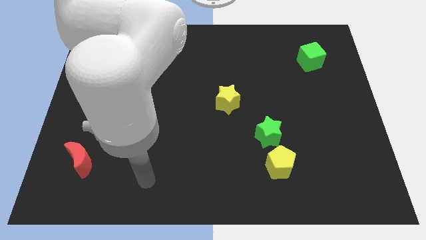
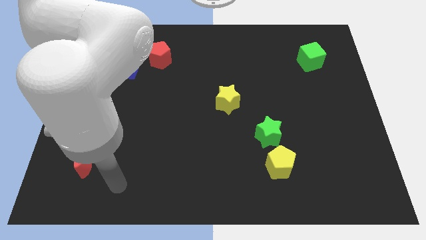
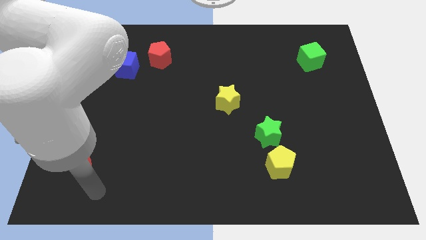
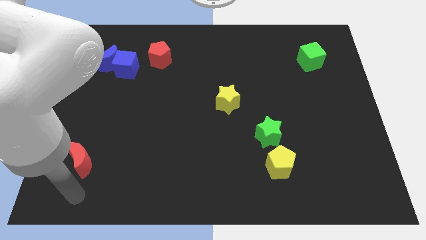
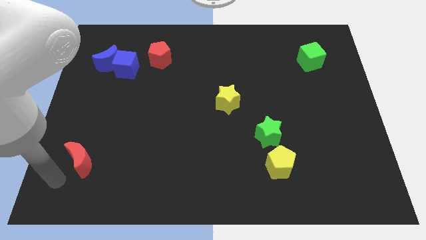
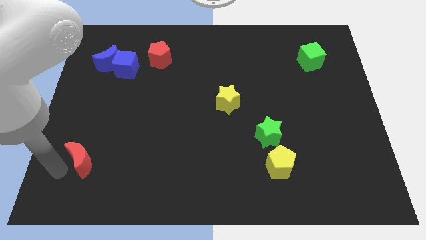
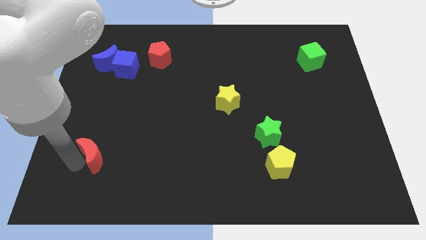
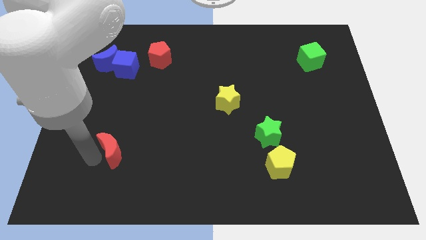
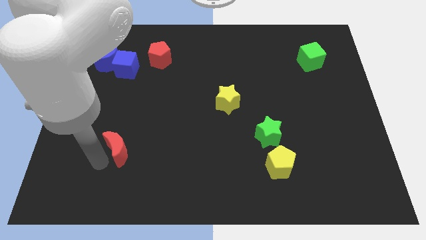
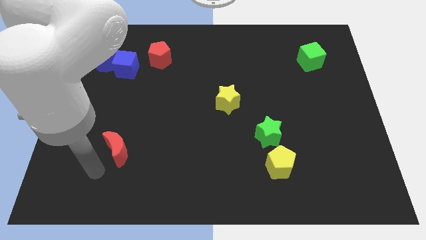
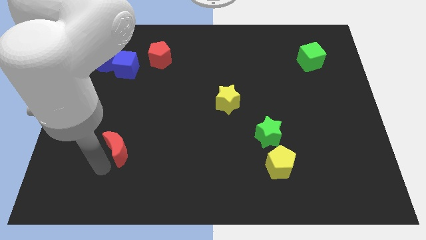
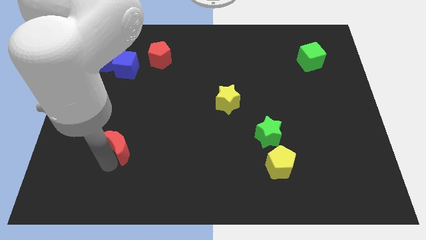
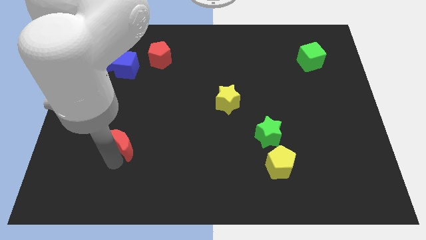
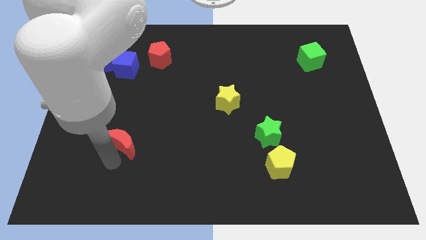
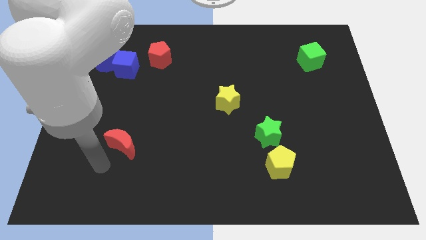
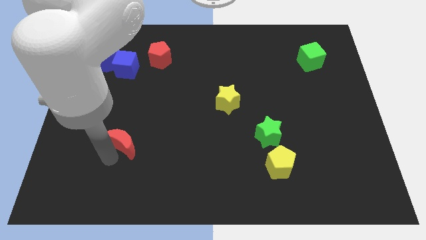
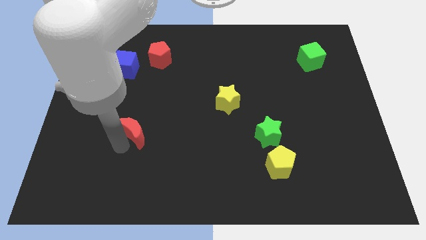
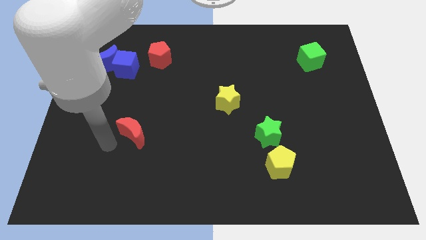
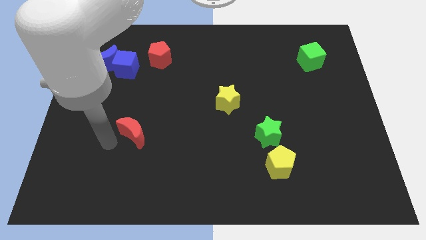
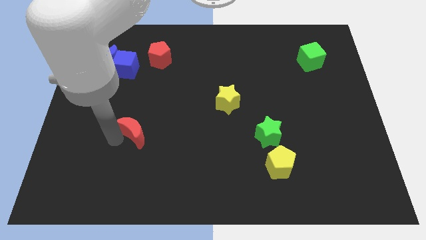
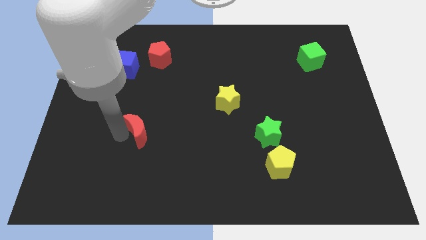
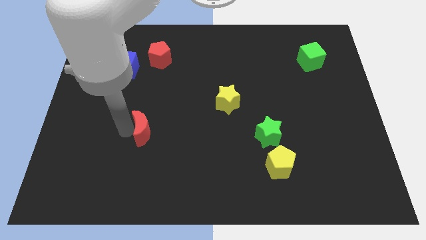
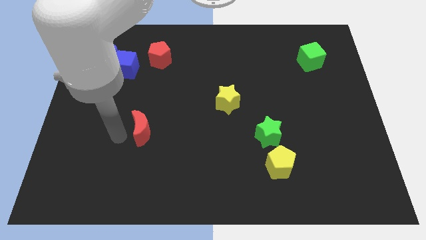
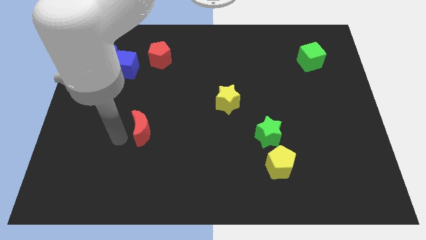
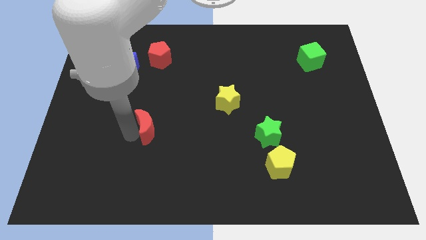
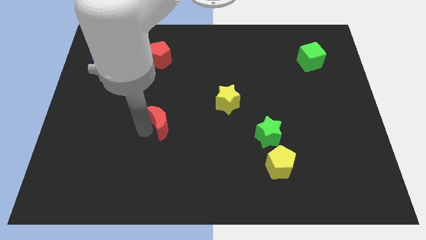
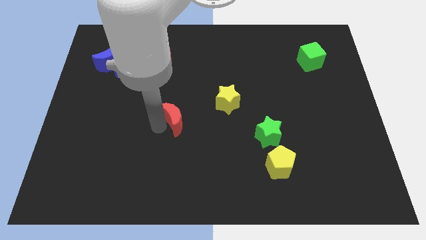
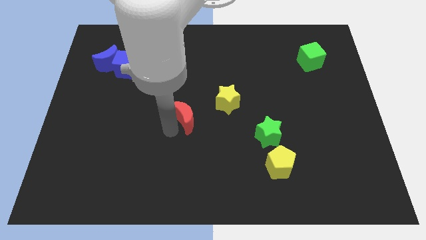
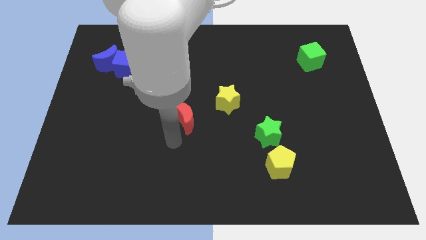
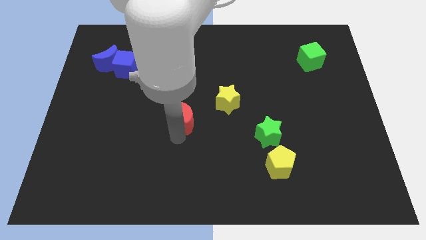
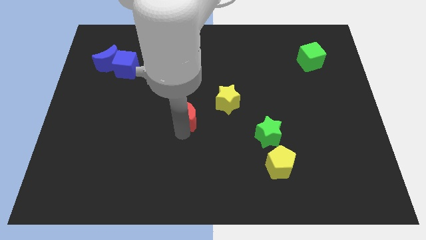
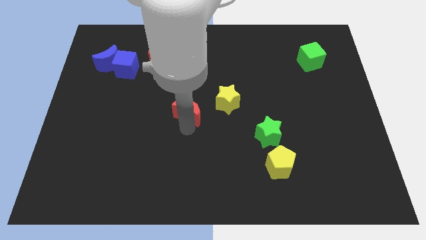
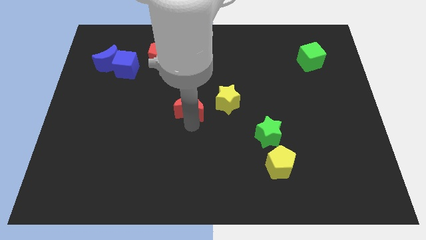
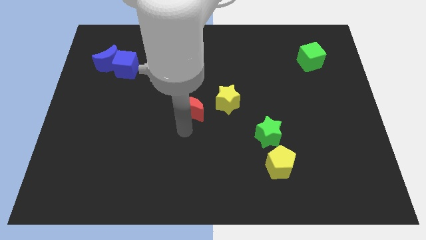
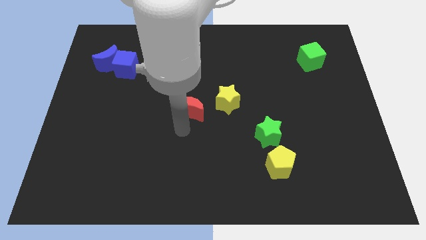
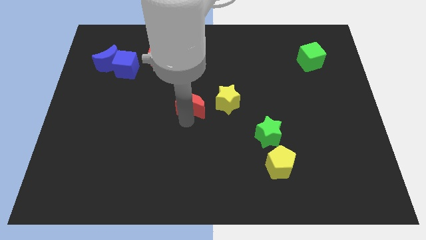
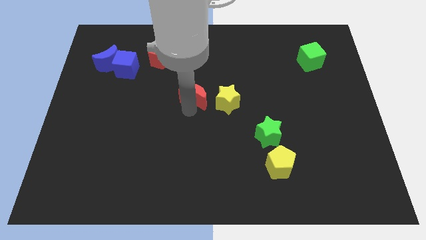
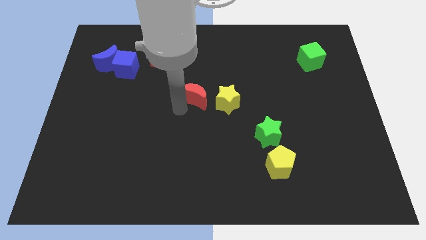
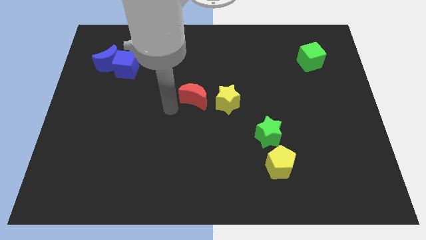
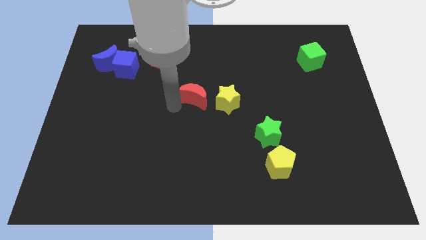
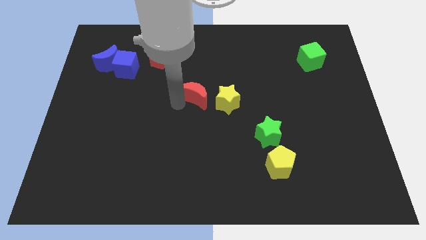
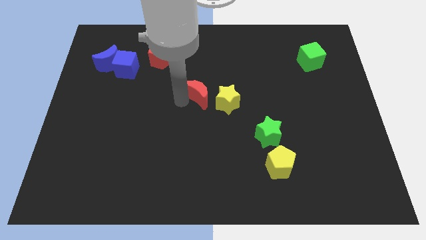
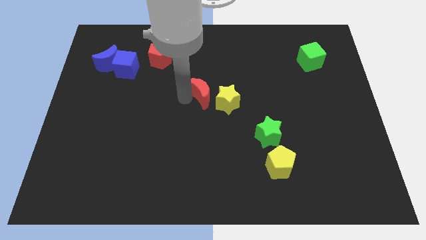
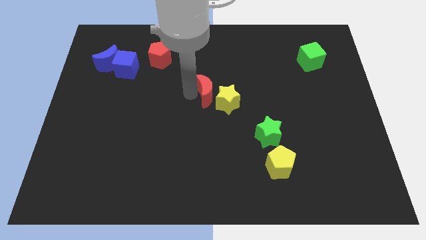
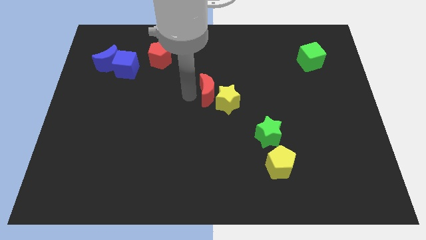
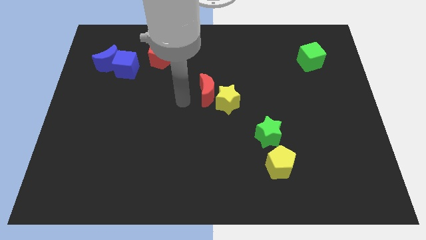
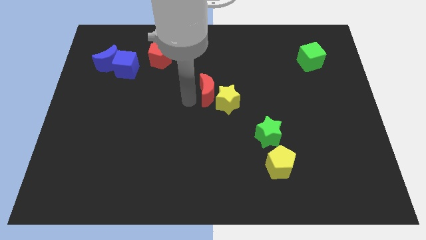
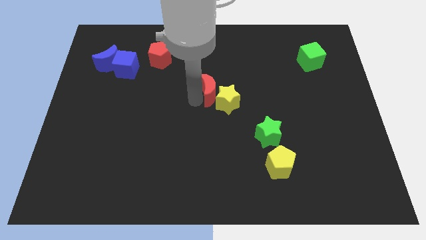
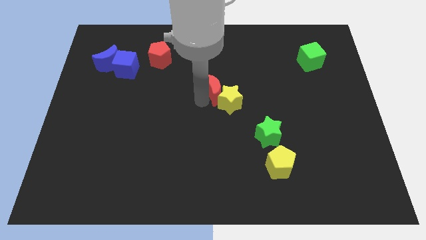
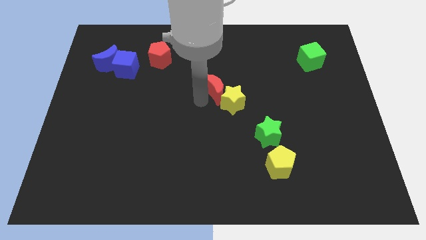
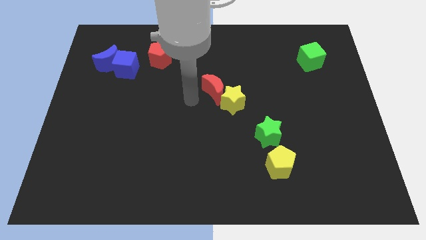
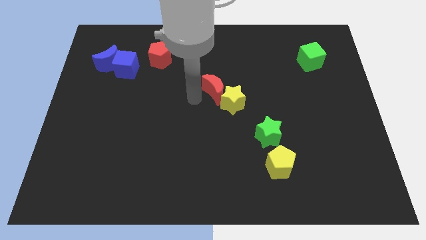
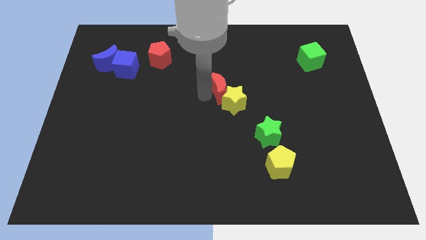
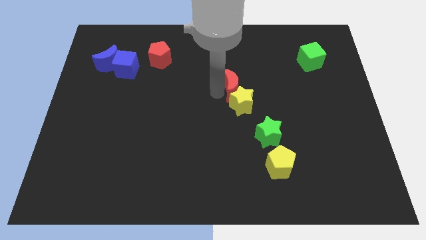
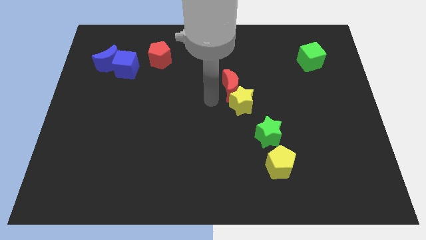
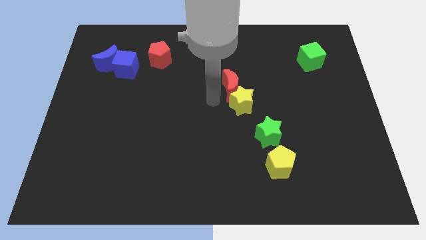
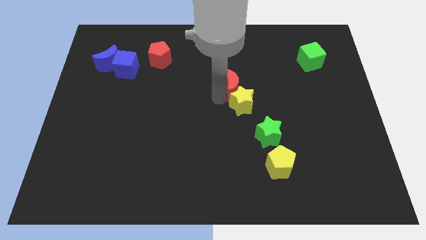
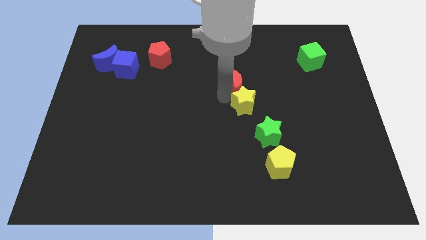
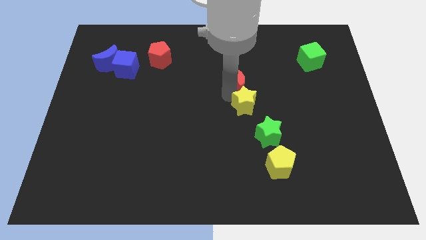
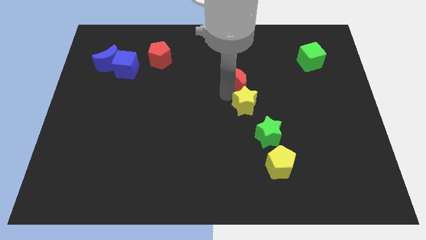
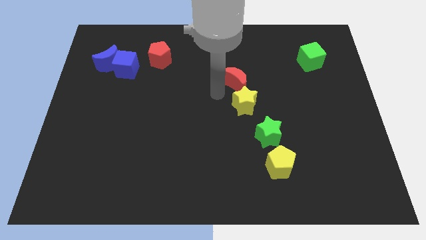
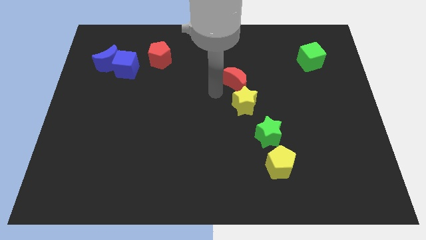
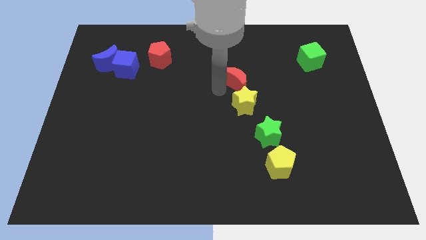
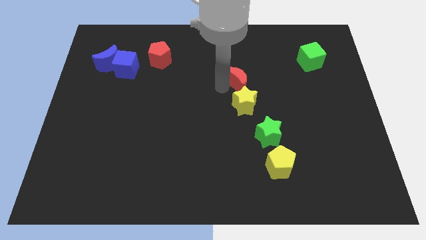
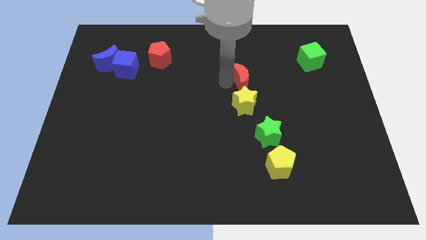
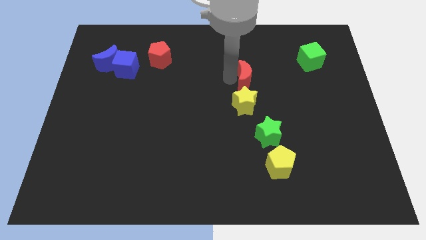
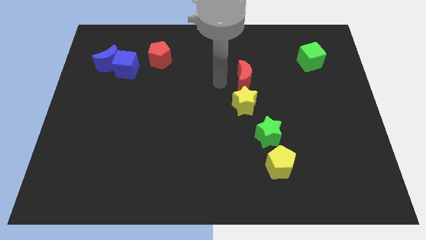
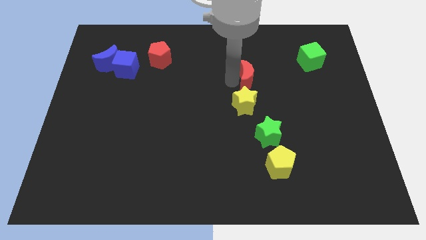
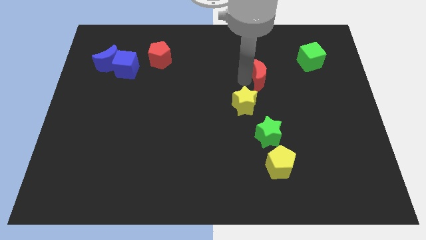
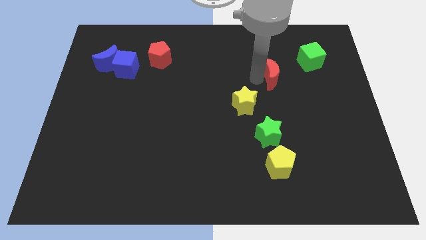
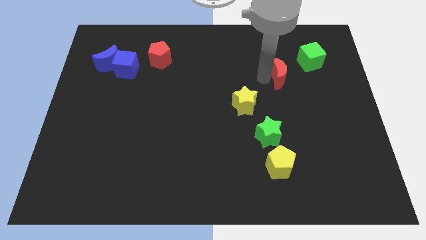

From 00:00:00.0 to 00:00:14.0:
slide the red moon to the bottom left side of the green cube
